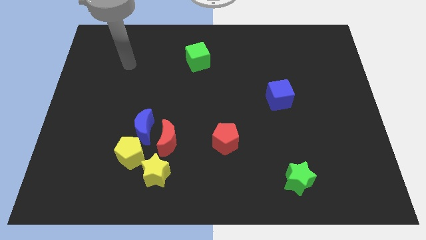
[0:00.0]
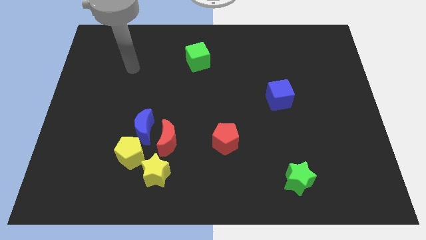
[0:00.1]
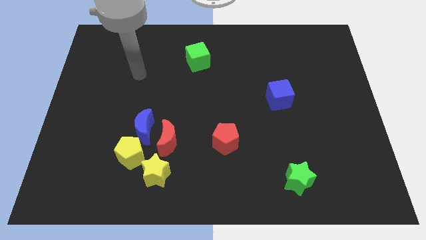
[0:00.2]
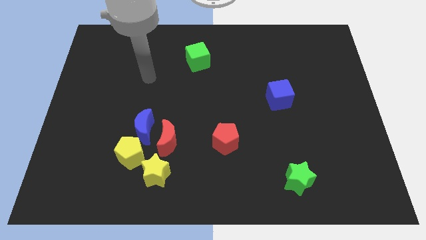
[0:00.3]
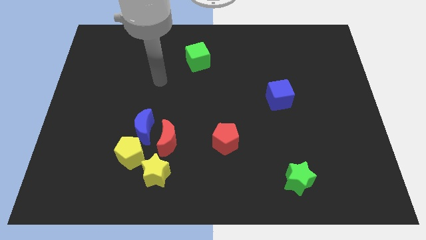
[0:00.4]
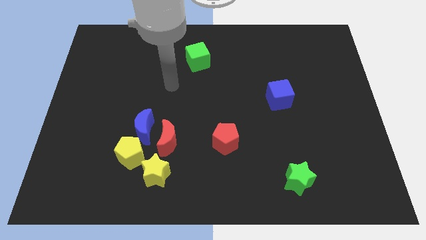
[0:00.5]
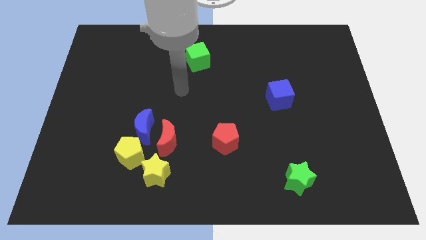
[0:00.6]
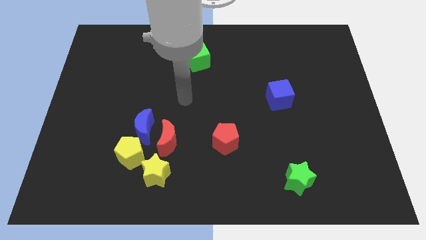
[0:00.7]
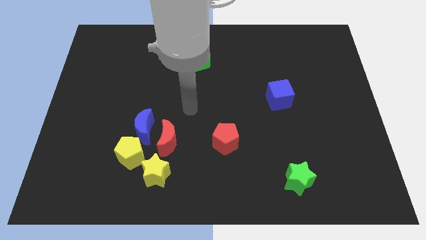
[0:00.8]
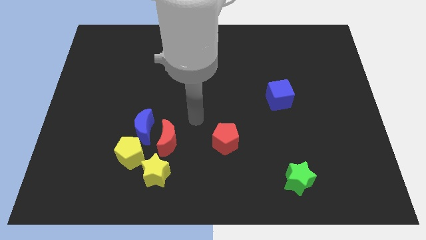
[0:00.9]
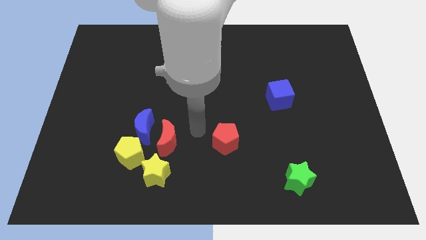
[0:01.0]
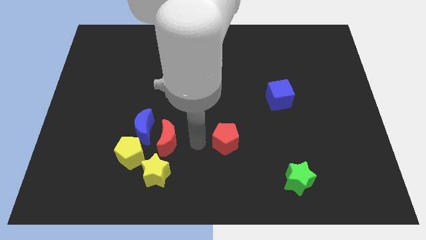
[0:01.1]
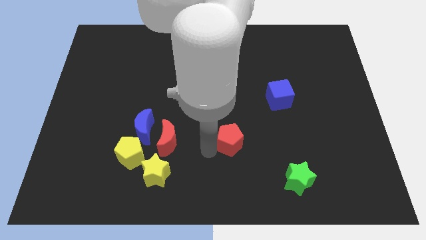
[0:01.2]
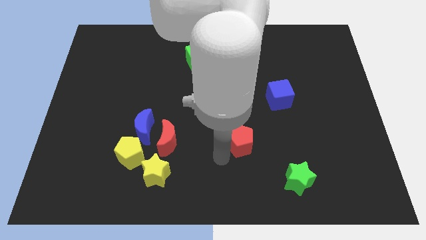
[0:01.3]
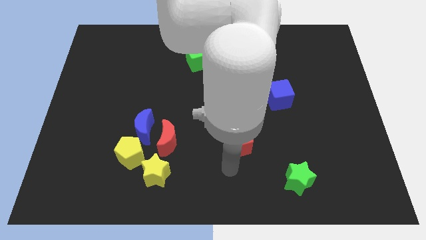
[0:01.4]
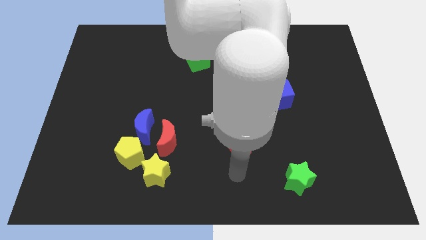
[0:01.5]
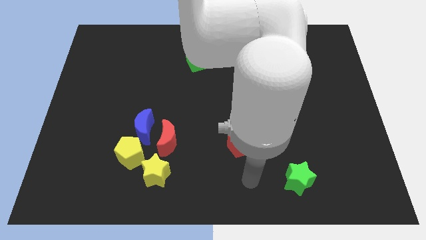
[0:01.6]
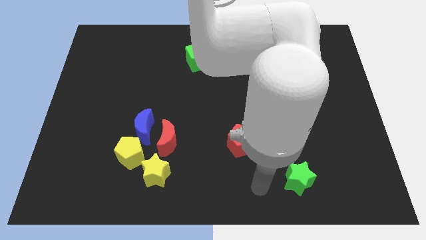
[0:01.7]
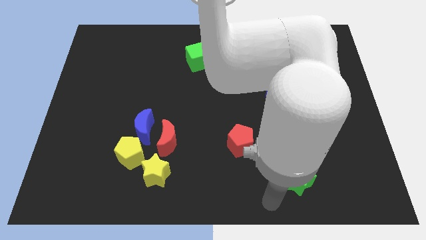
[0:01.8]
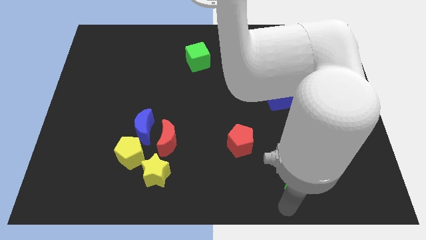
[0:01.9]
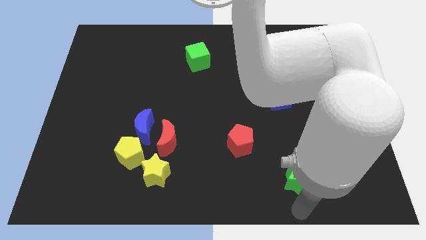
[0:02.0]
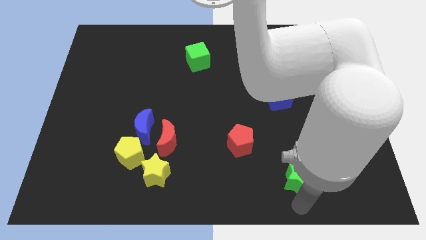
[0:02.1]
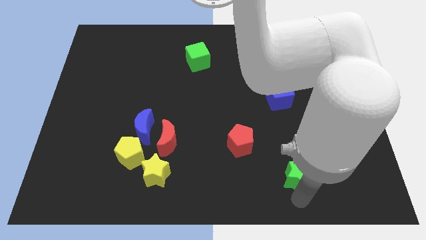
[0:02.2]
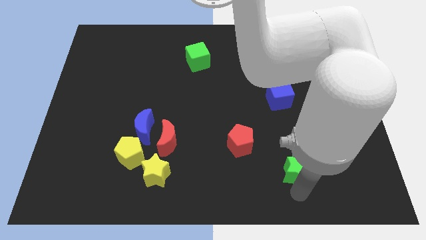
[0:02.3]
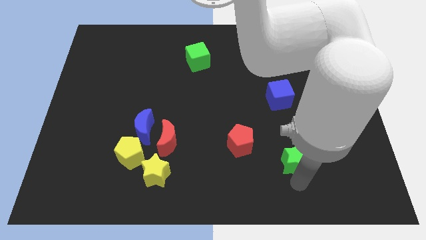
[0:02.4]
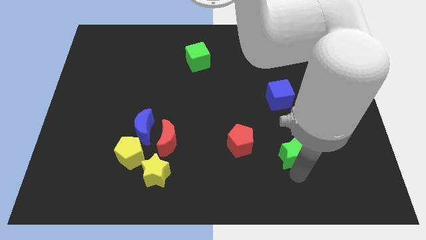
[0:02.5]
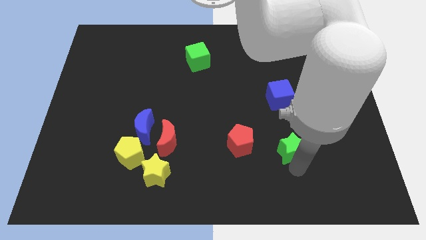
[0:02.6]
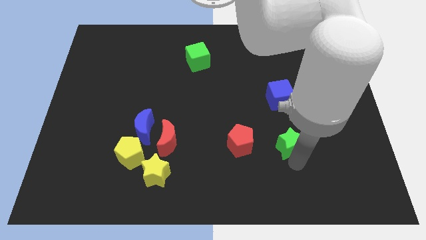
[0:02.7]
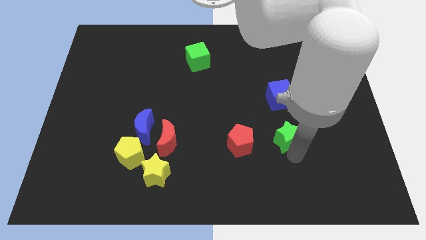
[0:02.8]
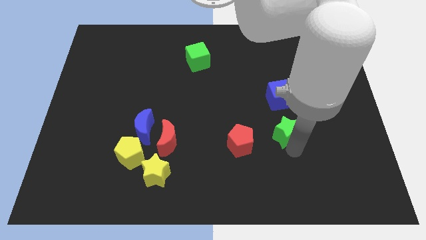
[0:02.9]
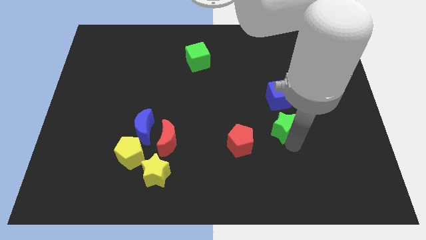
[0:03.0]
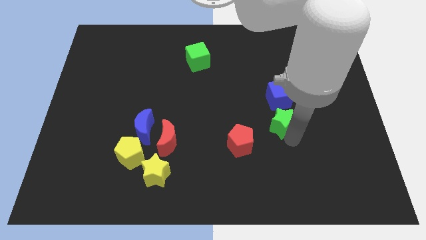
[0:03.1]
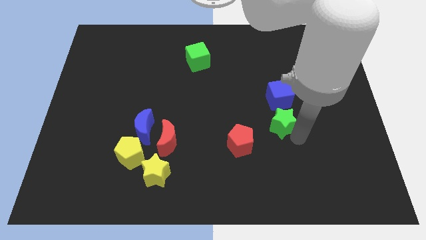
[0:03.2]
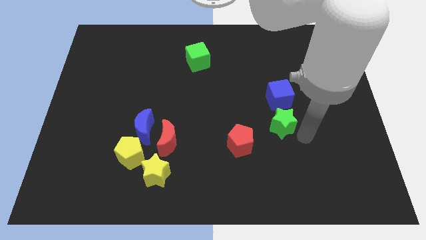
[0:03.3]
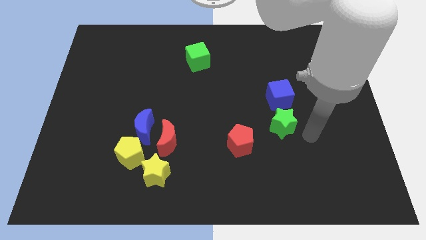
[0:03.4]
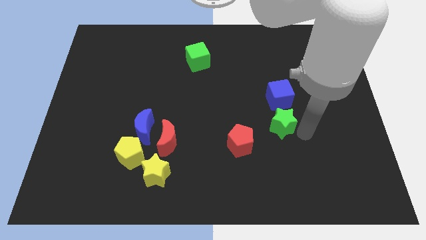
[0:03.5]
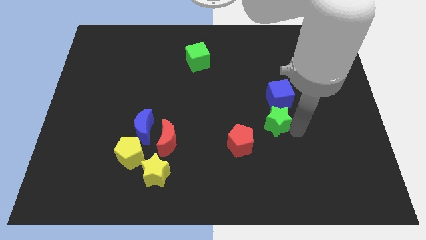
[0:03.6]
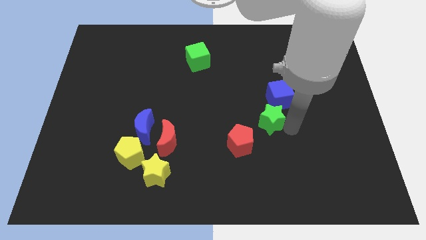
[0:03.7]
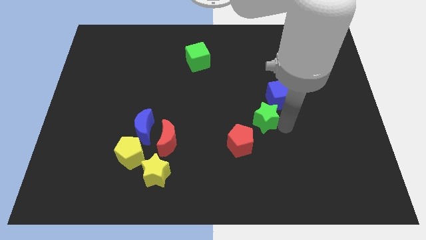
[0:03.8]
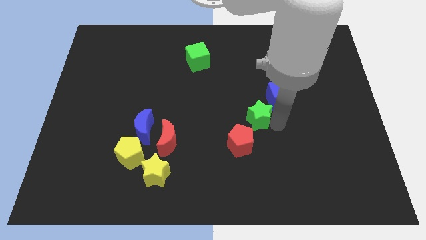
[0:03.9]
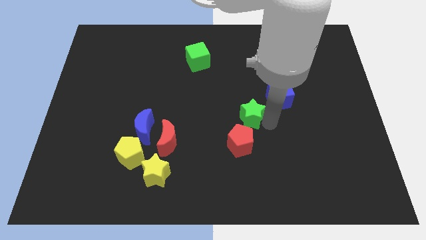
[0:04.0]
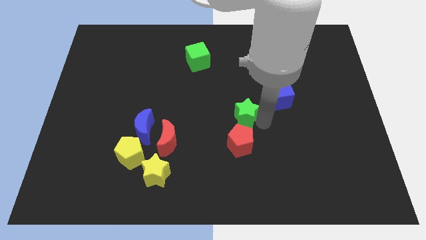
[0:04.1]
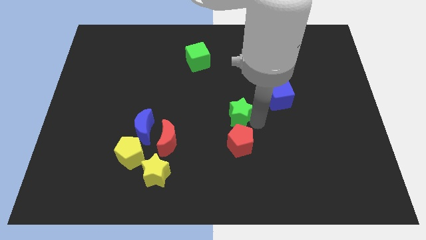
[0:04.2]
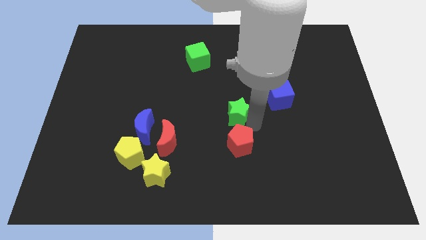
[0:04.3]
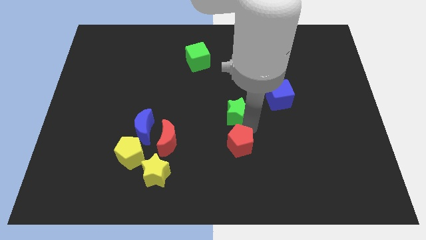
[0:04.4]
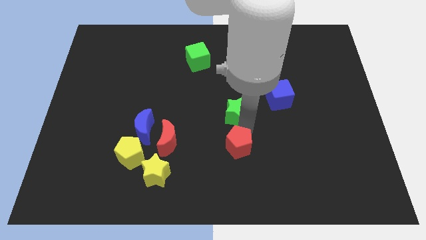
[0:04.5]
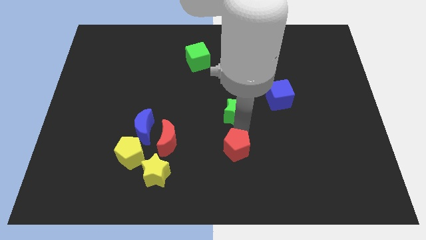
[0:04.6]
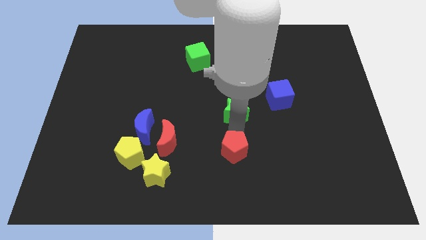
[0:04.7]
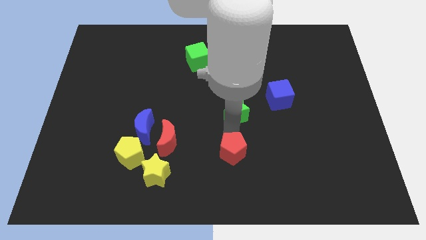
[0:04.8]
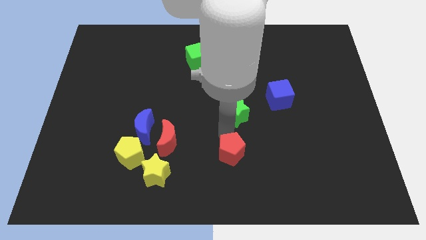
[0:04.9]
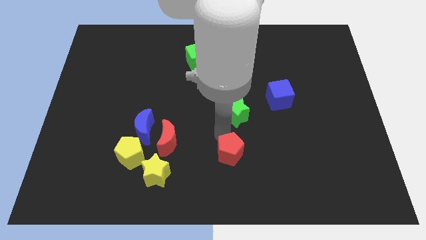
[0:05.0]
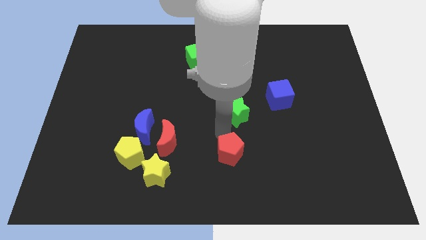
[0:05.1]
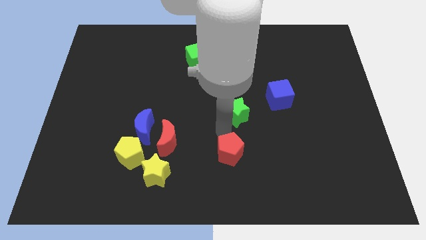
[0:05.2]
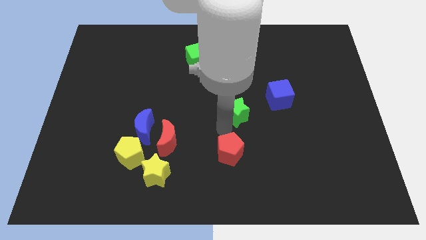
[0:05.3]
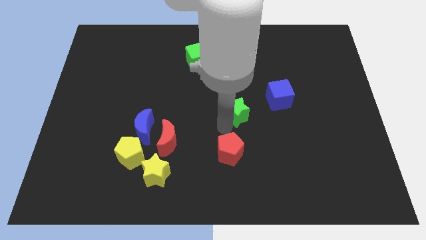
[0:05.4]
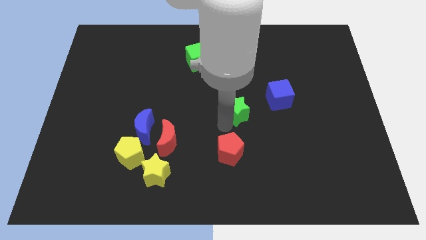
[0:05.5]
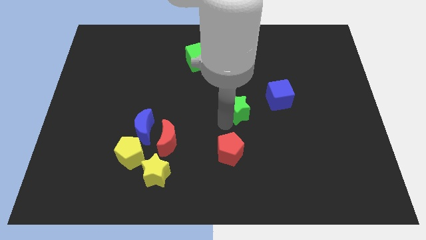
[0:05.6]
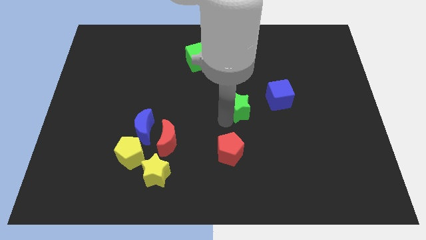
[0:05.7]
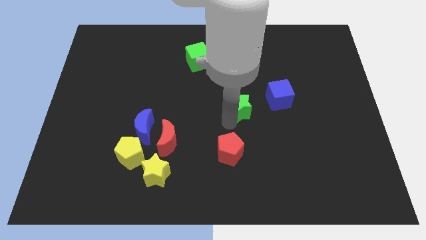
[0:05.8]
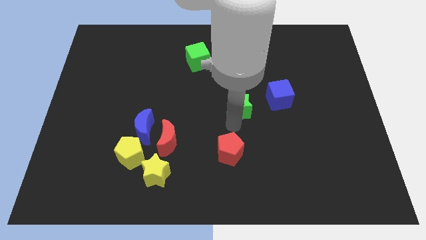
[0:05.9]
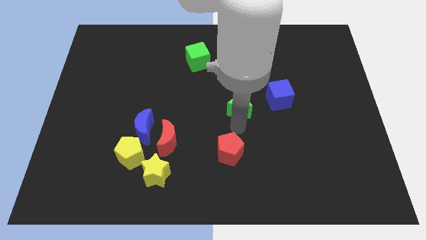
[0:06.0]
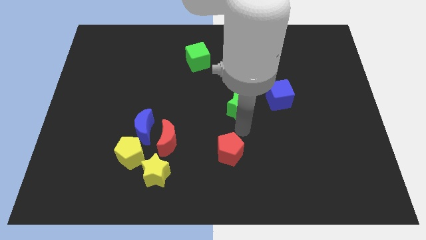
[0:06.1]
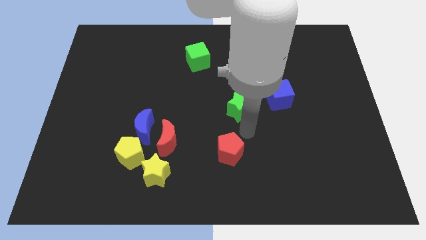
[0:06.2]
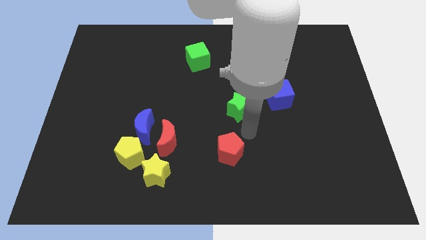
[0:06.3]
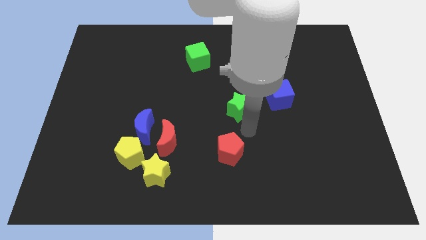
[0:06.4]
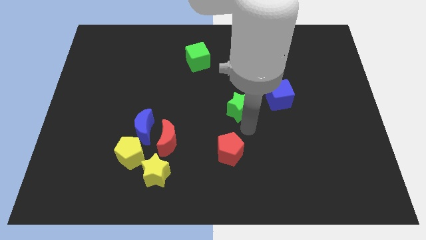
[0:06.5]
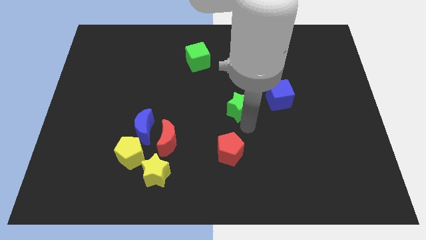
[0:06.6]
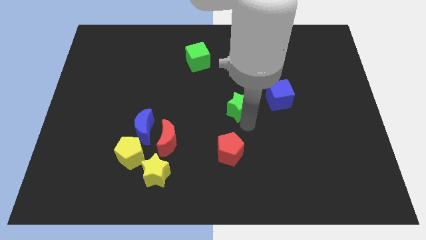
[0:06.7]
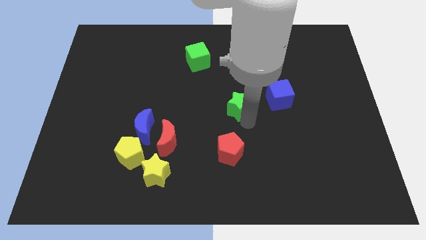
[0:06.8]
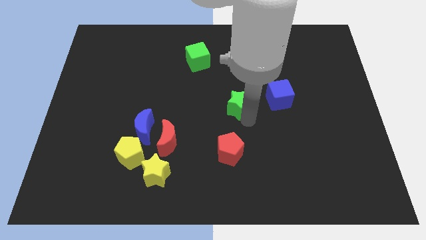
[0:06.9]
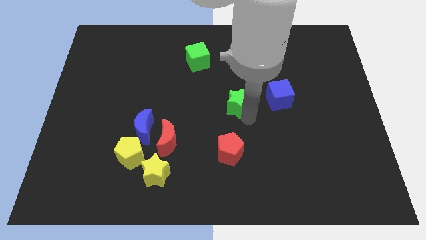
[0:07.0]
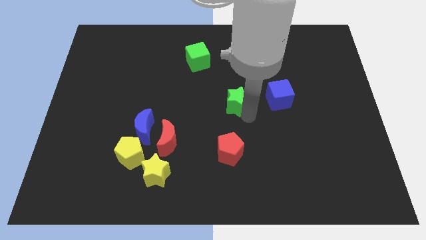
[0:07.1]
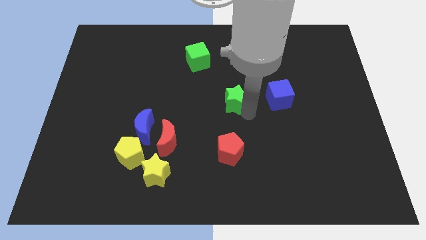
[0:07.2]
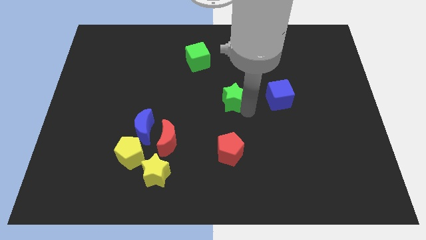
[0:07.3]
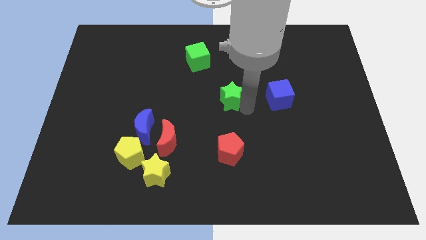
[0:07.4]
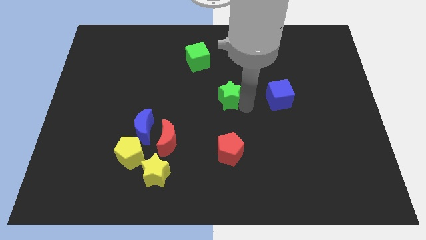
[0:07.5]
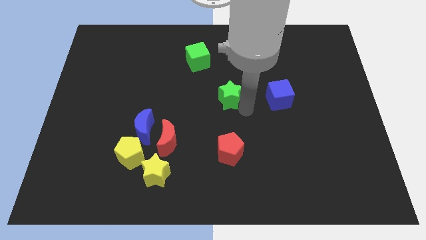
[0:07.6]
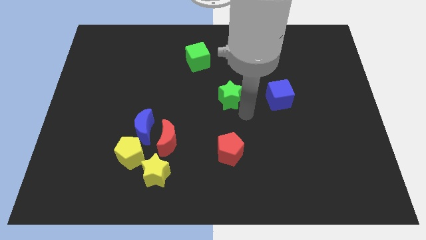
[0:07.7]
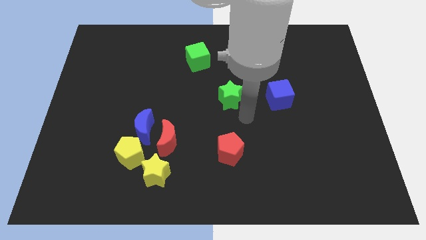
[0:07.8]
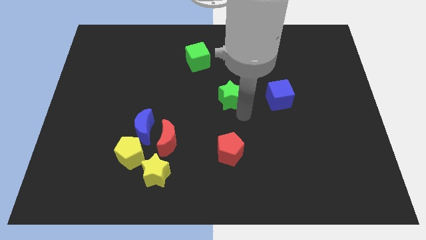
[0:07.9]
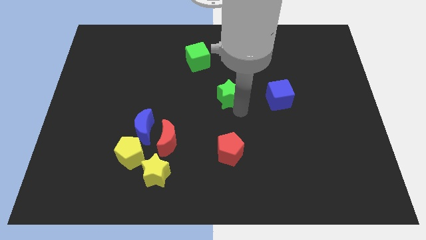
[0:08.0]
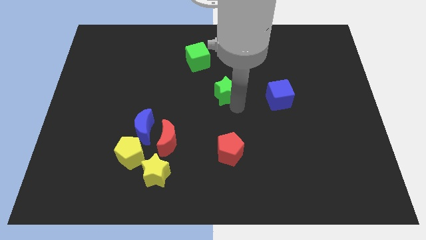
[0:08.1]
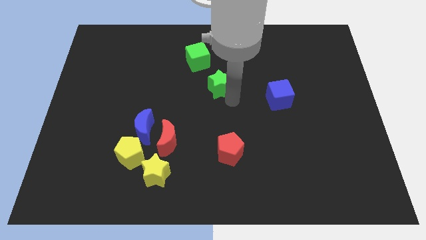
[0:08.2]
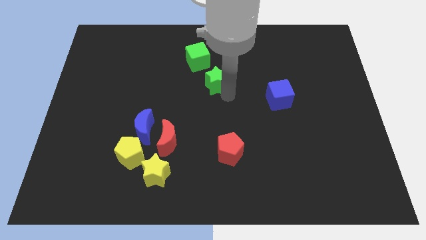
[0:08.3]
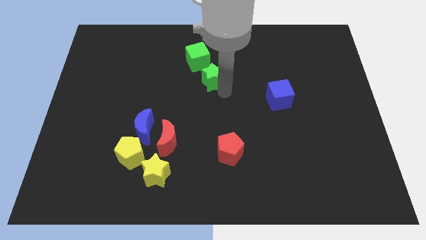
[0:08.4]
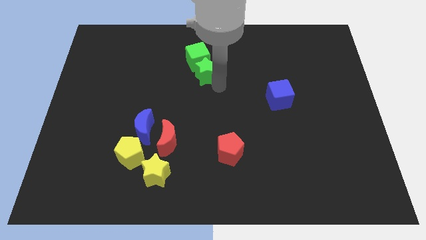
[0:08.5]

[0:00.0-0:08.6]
put the green star close to the green cube
